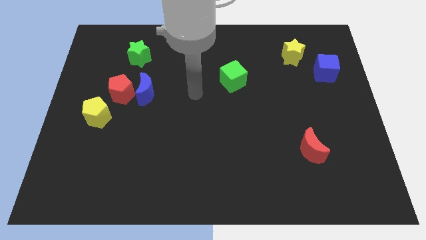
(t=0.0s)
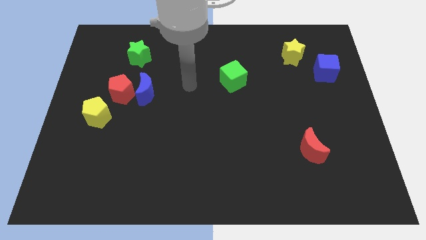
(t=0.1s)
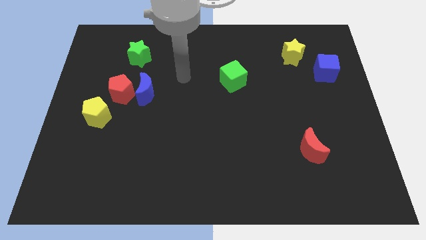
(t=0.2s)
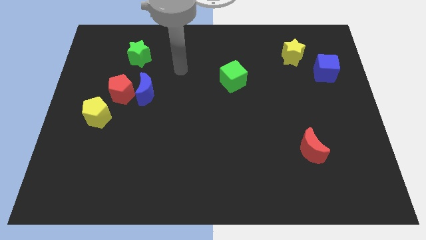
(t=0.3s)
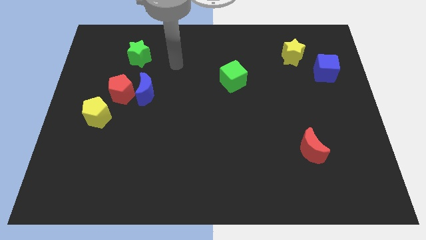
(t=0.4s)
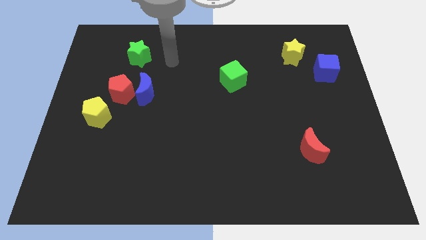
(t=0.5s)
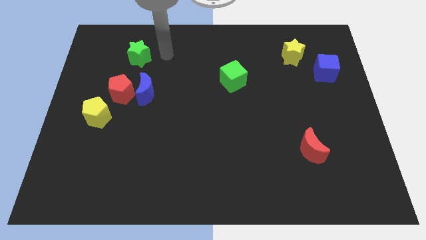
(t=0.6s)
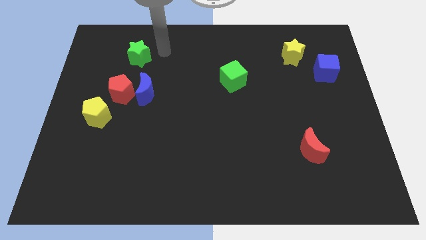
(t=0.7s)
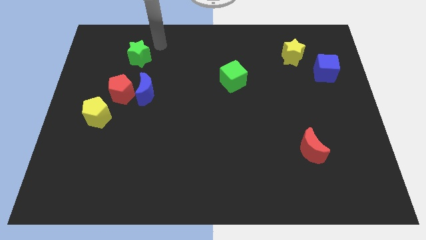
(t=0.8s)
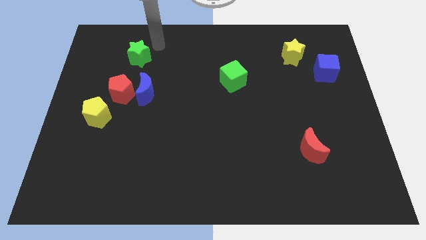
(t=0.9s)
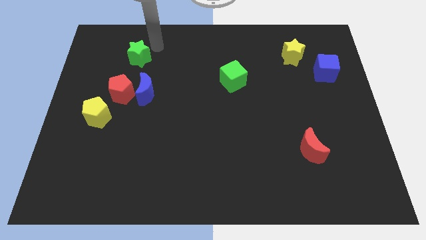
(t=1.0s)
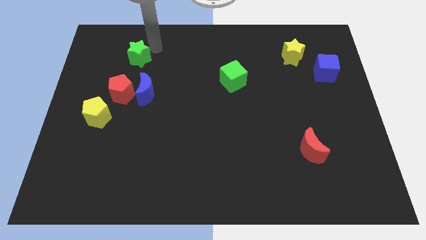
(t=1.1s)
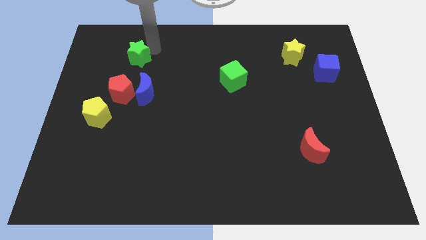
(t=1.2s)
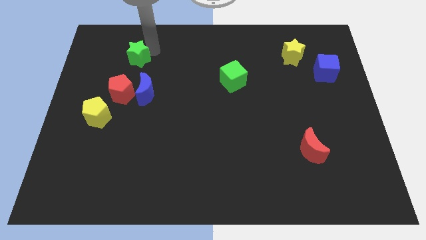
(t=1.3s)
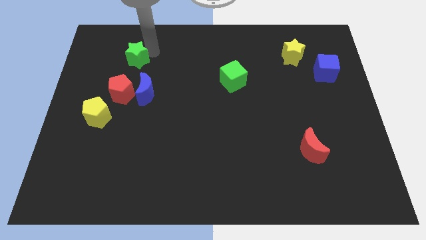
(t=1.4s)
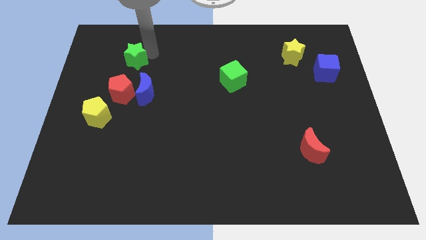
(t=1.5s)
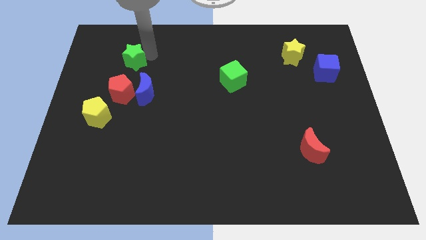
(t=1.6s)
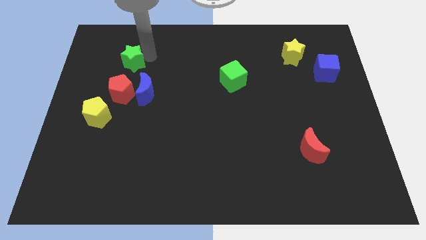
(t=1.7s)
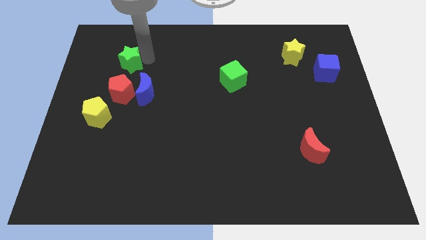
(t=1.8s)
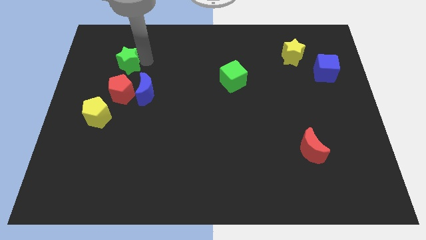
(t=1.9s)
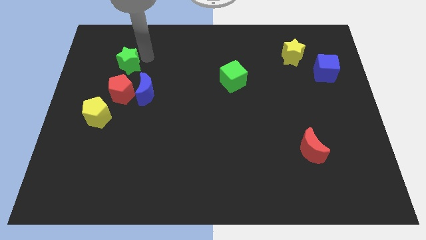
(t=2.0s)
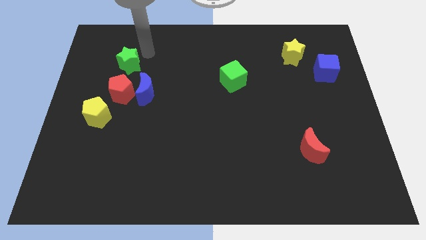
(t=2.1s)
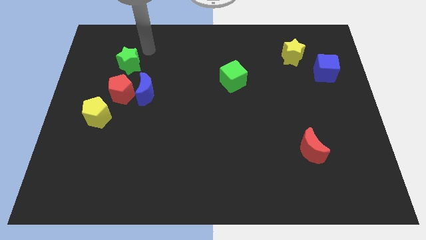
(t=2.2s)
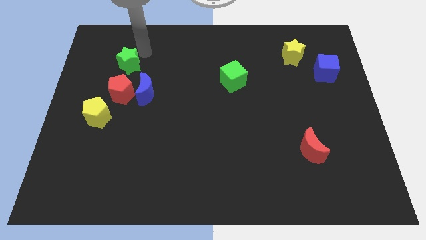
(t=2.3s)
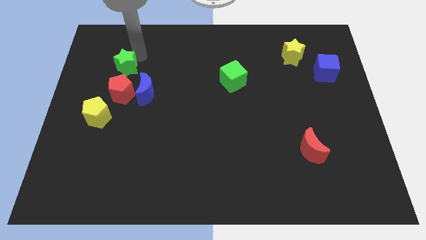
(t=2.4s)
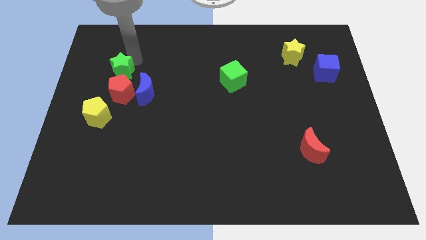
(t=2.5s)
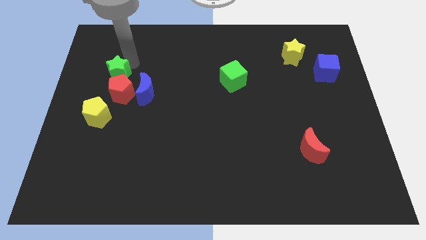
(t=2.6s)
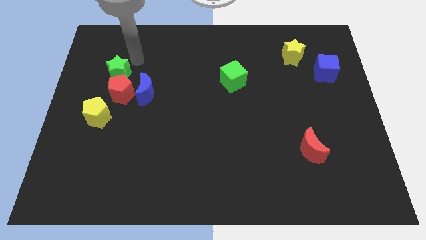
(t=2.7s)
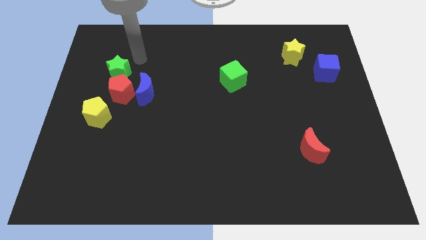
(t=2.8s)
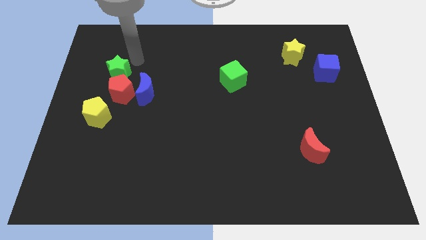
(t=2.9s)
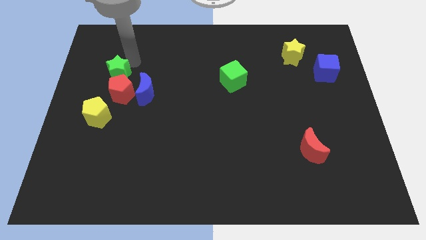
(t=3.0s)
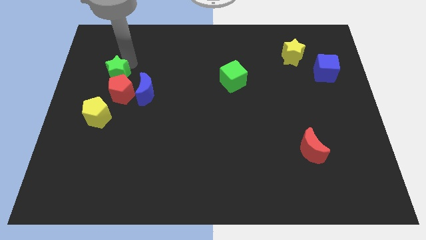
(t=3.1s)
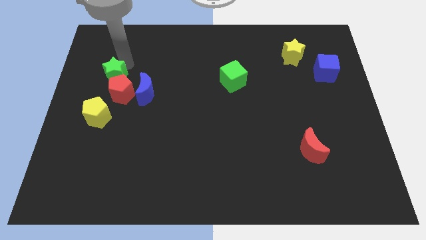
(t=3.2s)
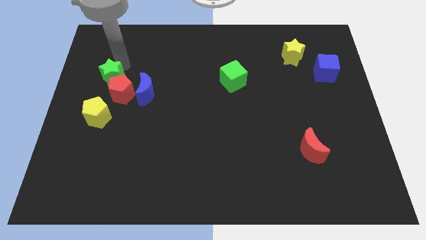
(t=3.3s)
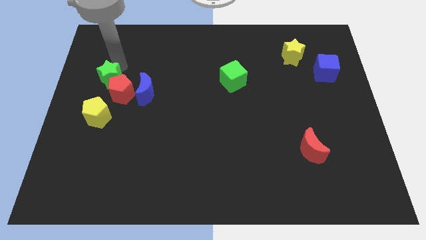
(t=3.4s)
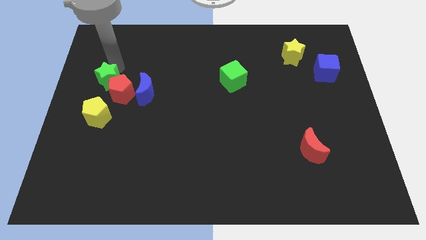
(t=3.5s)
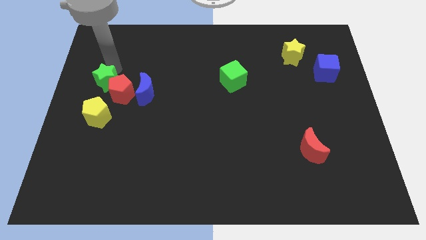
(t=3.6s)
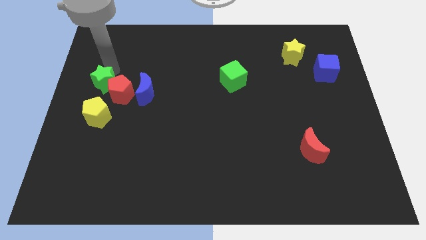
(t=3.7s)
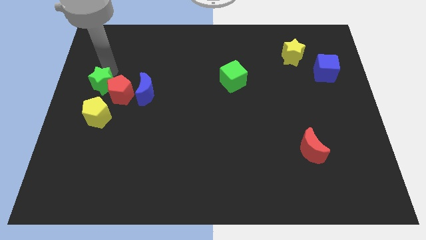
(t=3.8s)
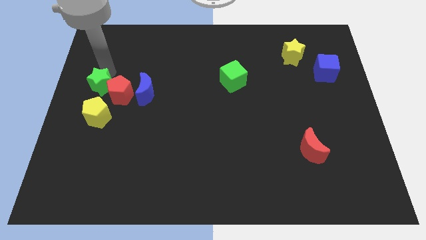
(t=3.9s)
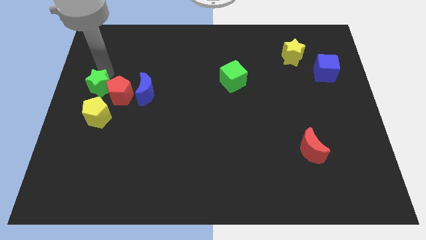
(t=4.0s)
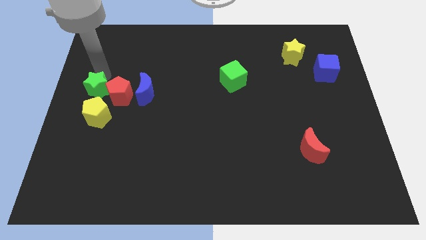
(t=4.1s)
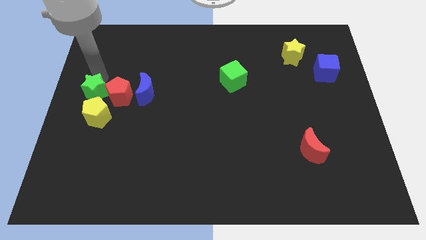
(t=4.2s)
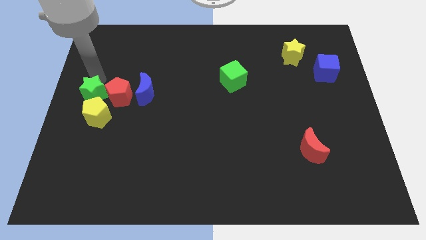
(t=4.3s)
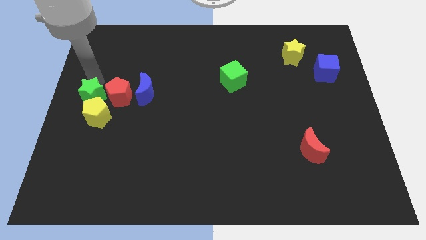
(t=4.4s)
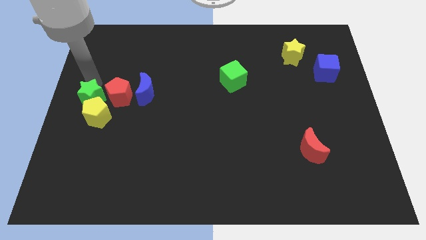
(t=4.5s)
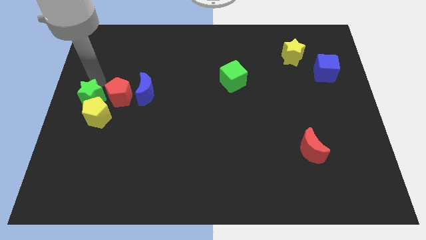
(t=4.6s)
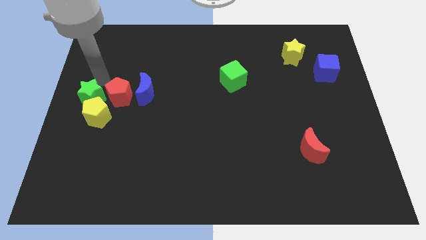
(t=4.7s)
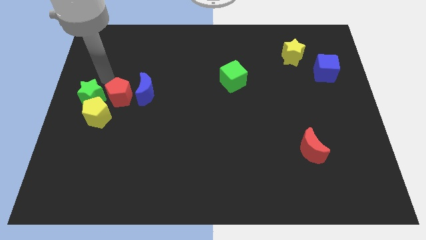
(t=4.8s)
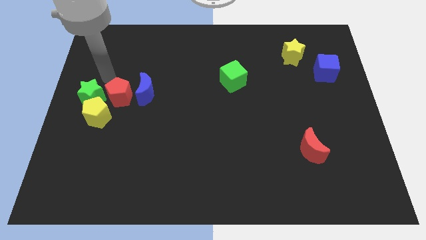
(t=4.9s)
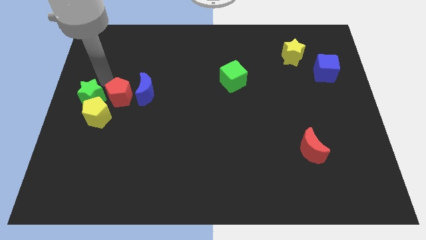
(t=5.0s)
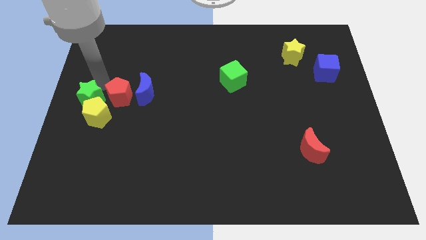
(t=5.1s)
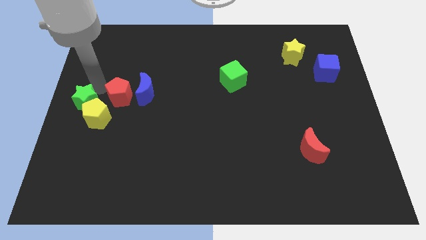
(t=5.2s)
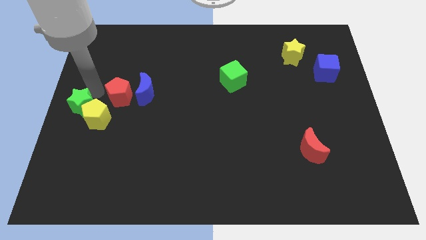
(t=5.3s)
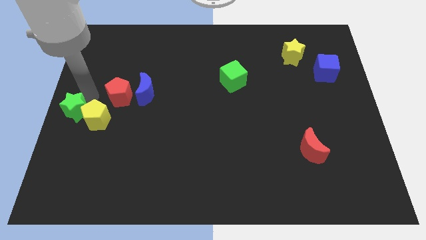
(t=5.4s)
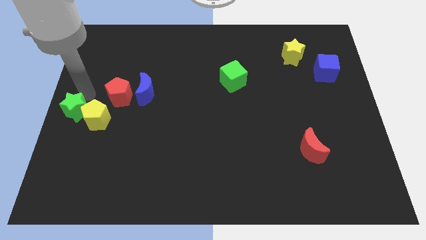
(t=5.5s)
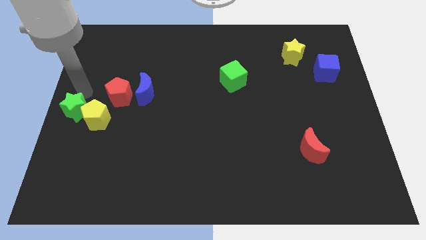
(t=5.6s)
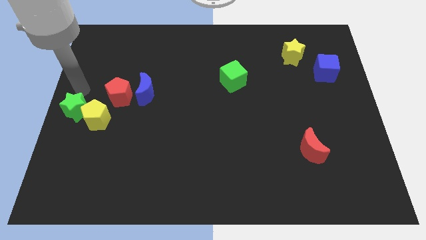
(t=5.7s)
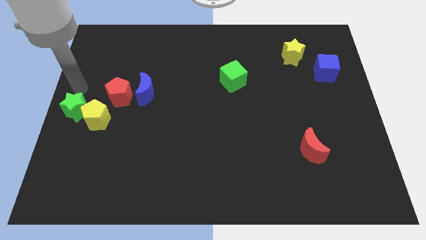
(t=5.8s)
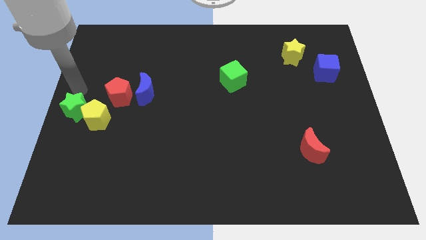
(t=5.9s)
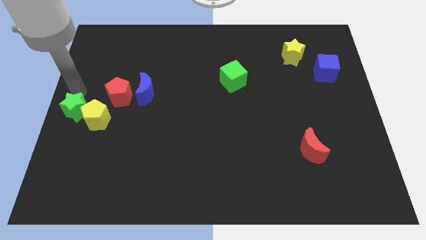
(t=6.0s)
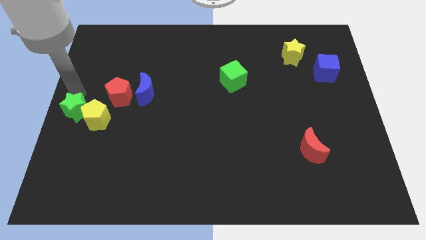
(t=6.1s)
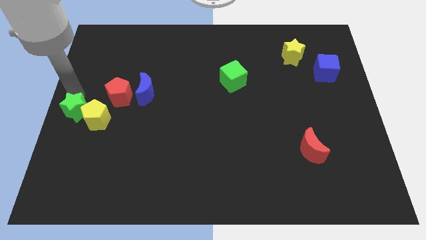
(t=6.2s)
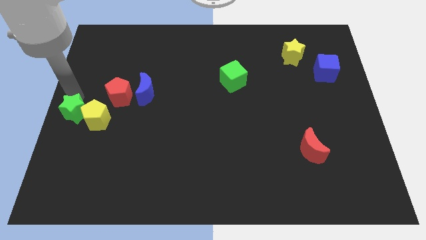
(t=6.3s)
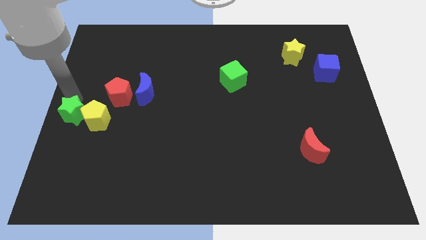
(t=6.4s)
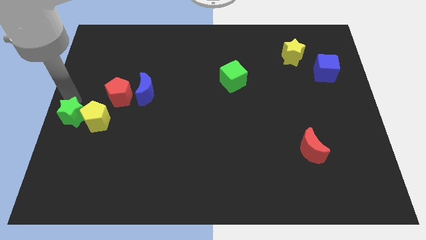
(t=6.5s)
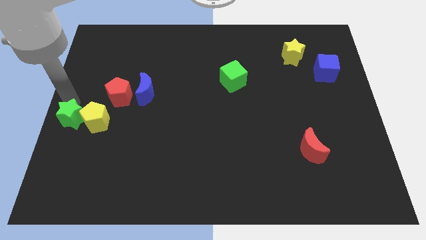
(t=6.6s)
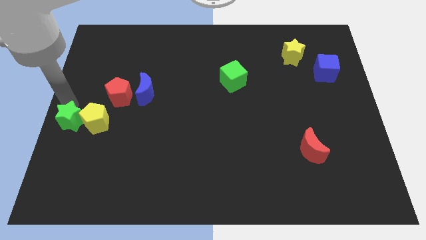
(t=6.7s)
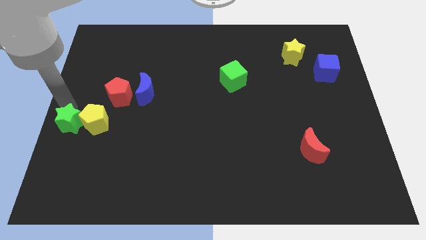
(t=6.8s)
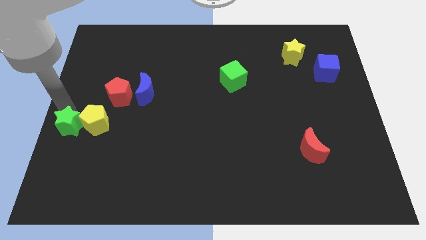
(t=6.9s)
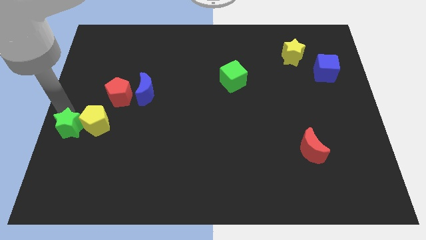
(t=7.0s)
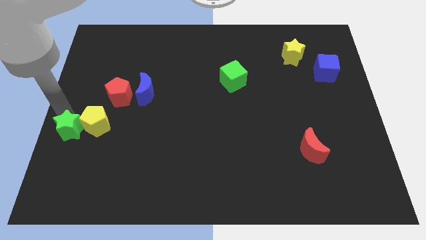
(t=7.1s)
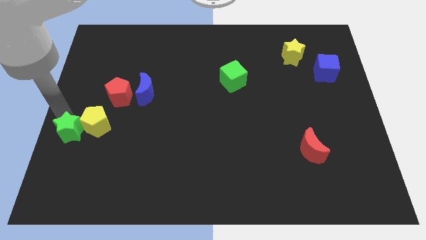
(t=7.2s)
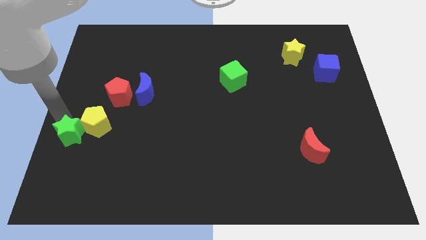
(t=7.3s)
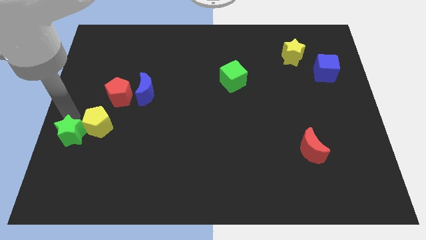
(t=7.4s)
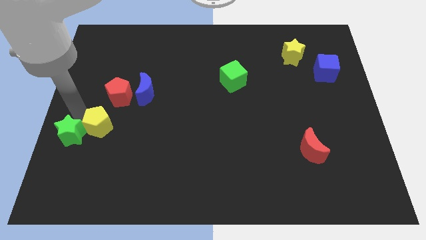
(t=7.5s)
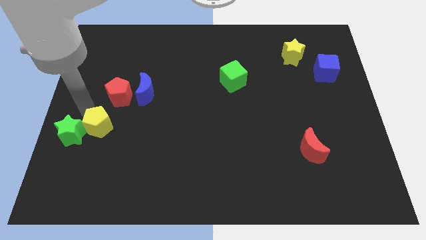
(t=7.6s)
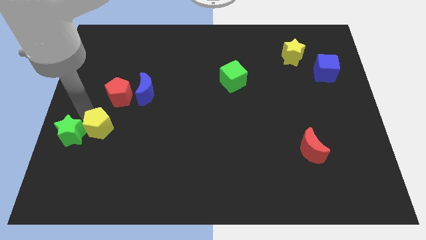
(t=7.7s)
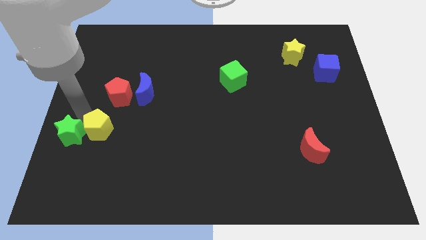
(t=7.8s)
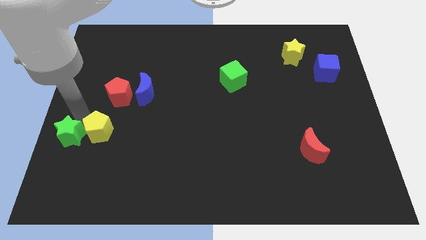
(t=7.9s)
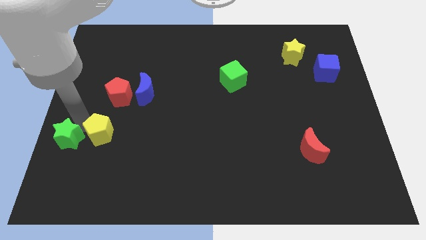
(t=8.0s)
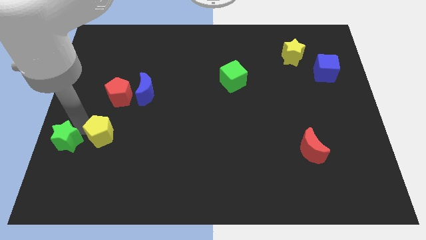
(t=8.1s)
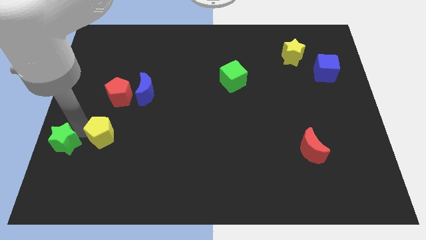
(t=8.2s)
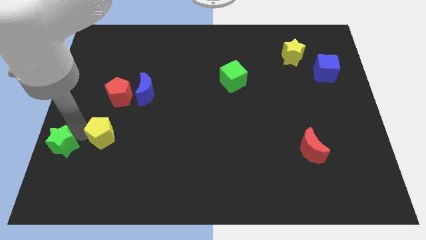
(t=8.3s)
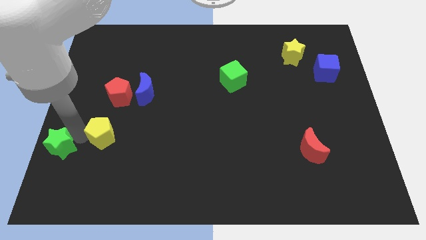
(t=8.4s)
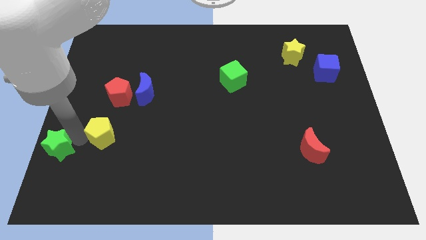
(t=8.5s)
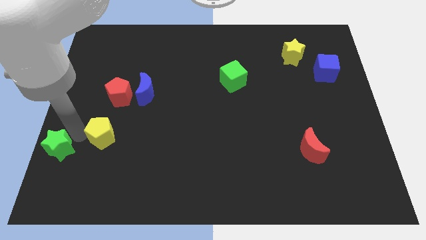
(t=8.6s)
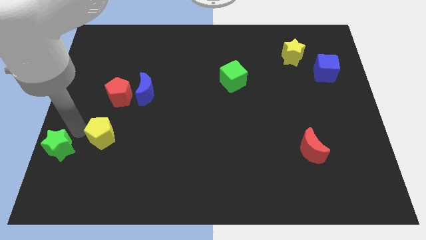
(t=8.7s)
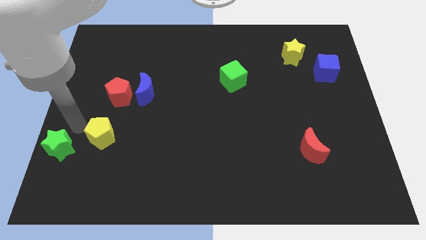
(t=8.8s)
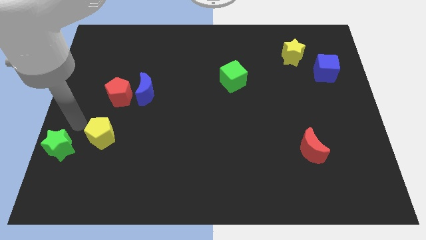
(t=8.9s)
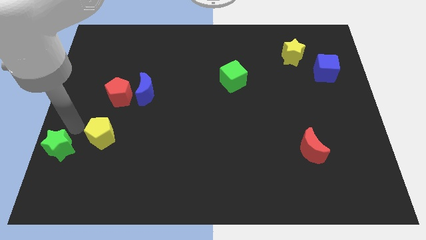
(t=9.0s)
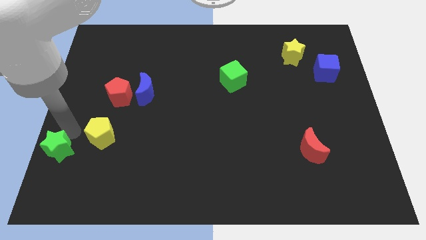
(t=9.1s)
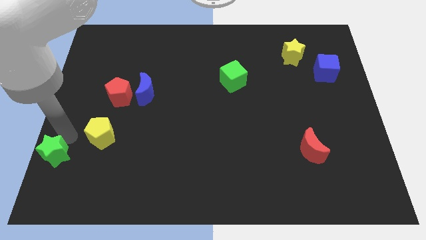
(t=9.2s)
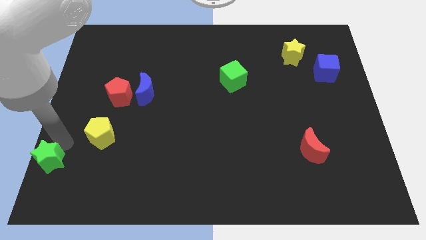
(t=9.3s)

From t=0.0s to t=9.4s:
put the green star to the bottom left of the board
